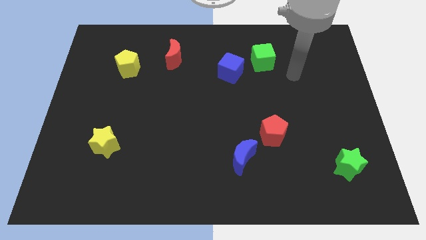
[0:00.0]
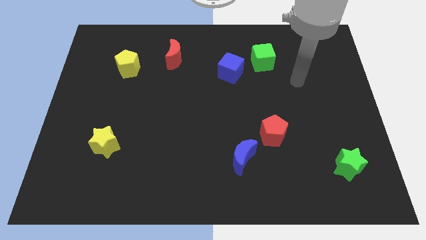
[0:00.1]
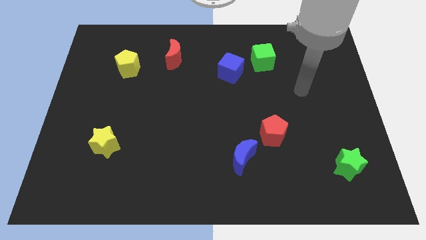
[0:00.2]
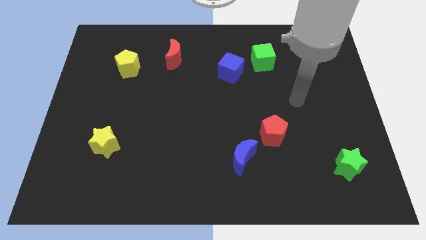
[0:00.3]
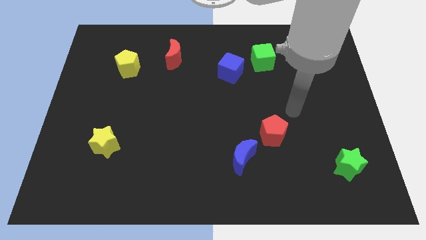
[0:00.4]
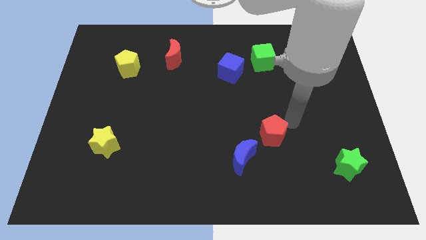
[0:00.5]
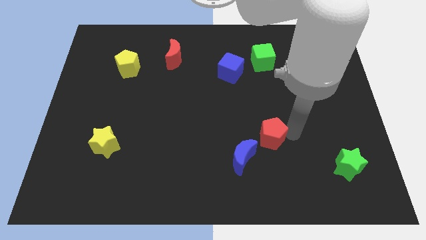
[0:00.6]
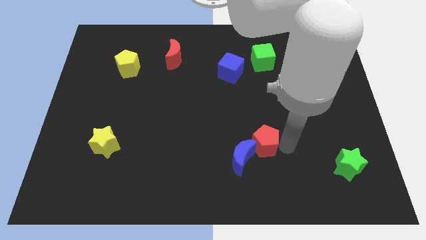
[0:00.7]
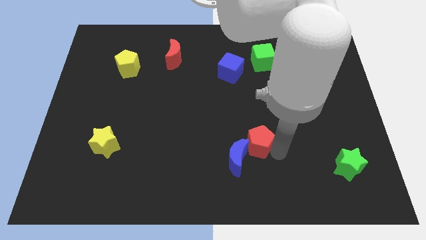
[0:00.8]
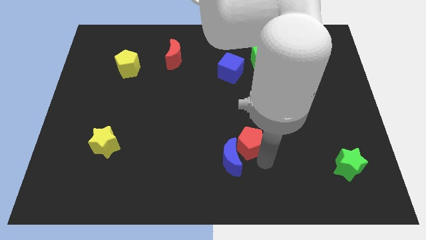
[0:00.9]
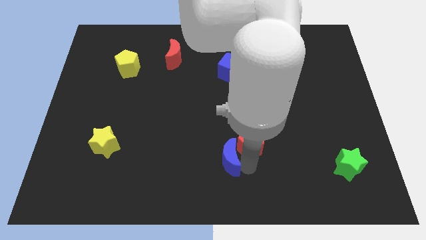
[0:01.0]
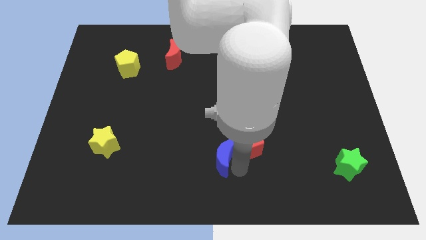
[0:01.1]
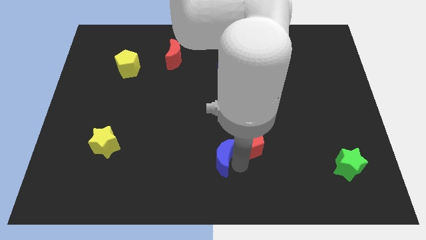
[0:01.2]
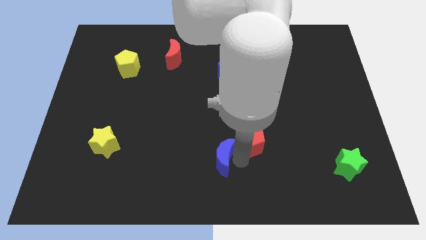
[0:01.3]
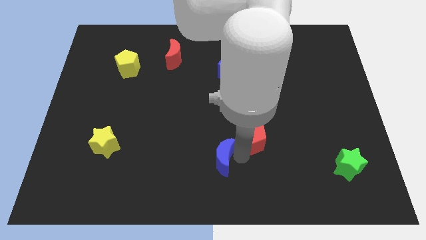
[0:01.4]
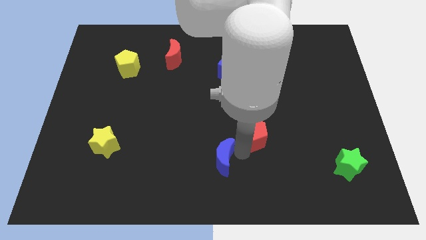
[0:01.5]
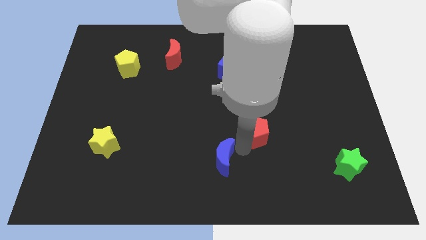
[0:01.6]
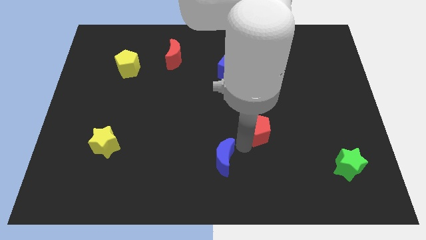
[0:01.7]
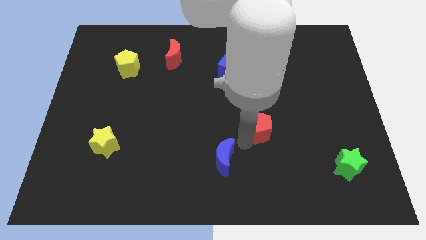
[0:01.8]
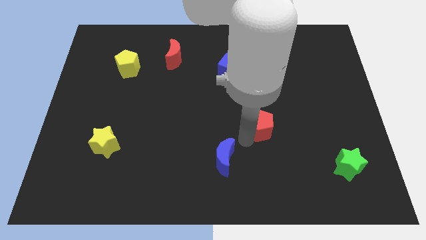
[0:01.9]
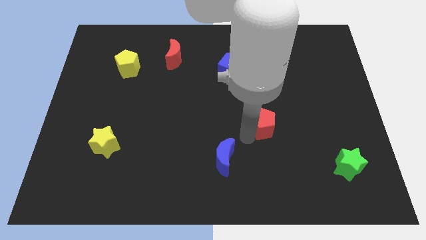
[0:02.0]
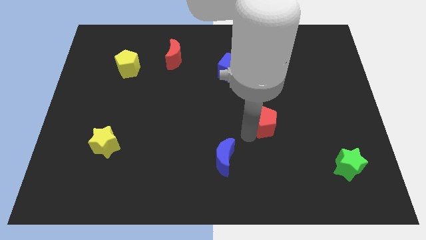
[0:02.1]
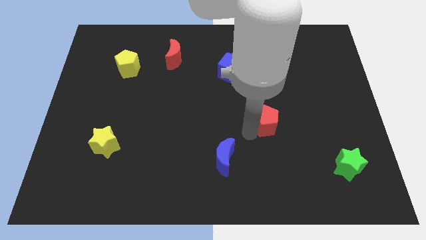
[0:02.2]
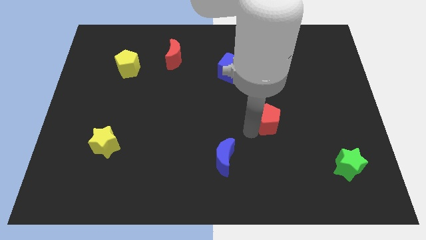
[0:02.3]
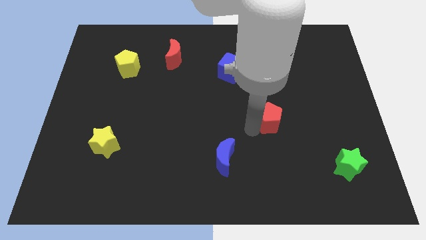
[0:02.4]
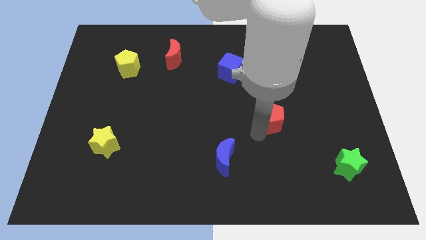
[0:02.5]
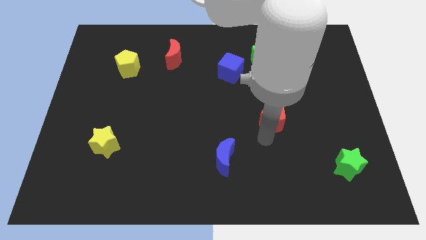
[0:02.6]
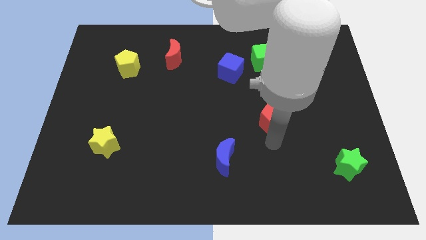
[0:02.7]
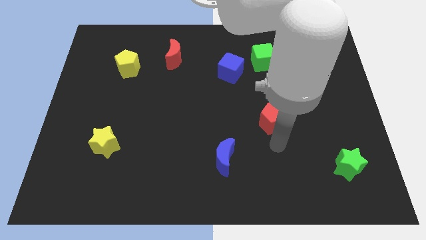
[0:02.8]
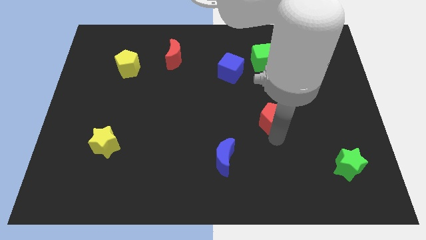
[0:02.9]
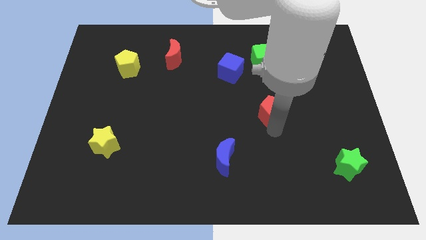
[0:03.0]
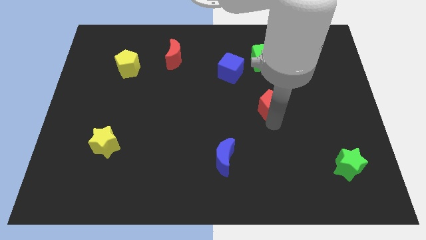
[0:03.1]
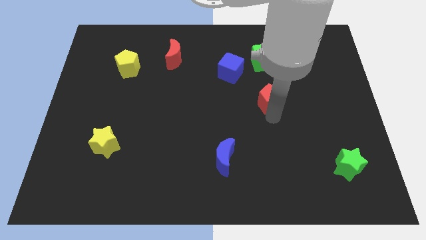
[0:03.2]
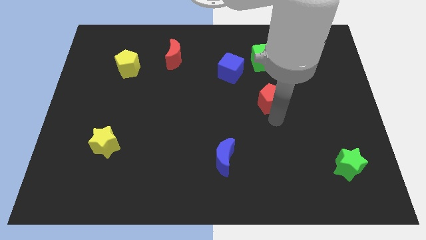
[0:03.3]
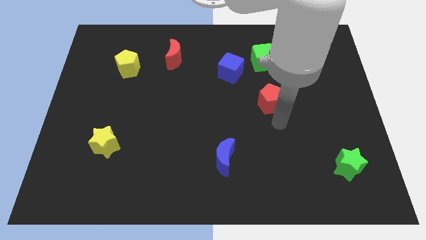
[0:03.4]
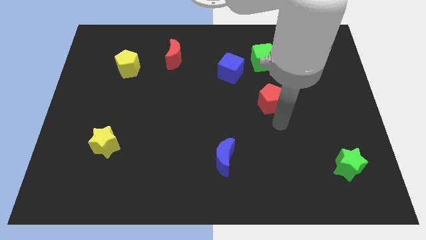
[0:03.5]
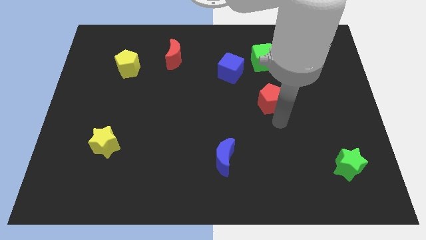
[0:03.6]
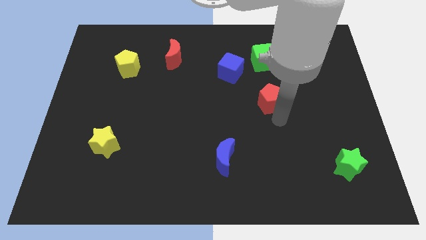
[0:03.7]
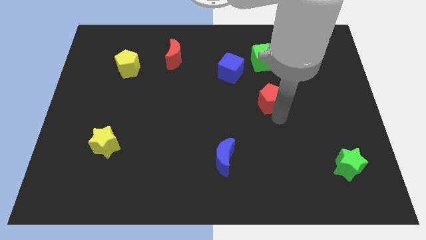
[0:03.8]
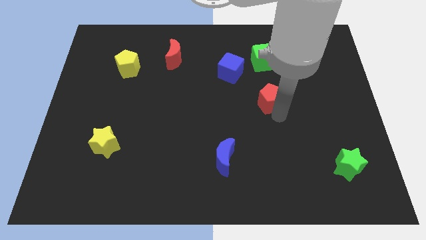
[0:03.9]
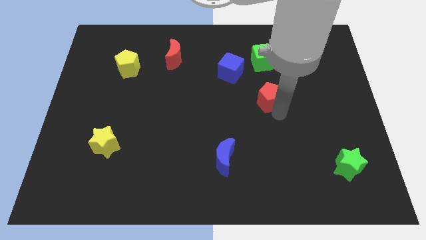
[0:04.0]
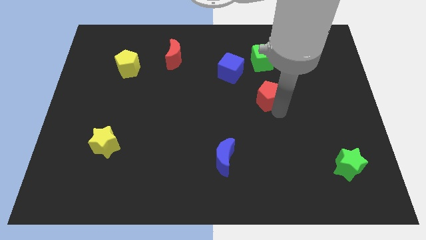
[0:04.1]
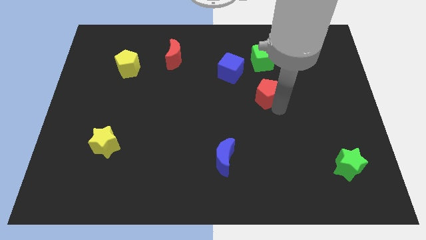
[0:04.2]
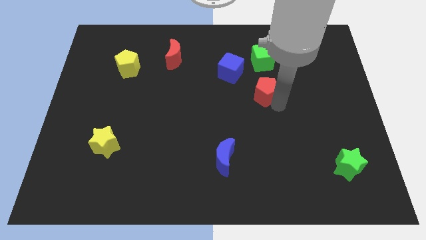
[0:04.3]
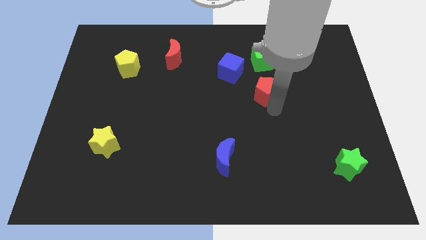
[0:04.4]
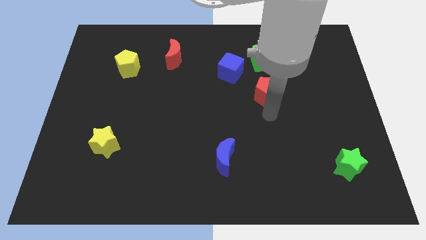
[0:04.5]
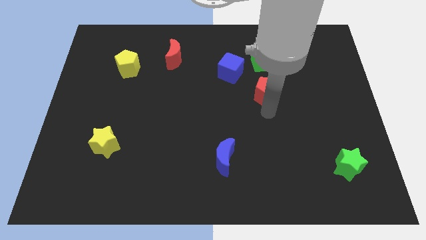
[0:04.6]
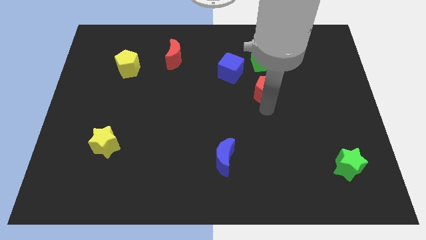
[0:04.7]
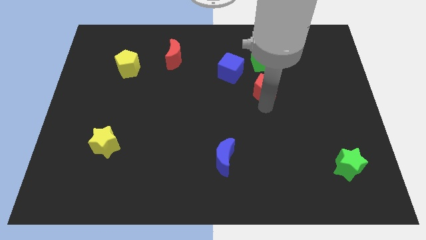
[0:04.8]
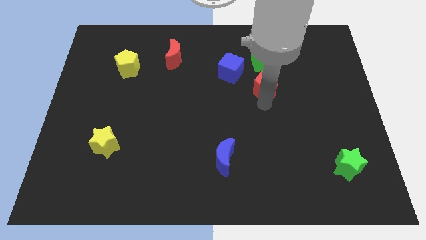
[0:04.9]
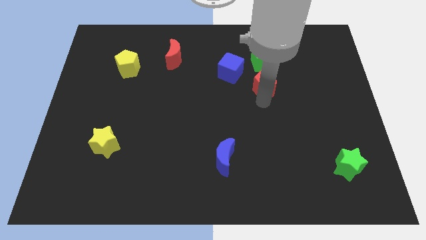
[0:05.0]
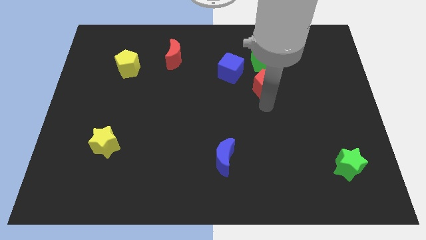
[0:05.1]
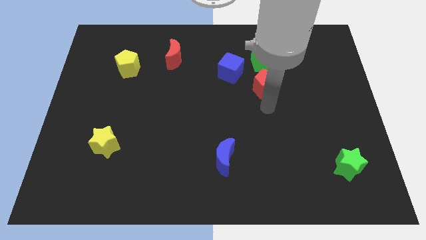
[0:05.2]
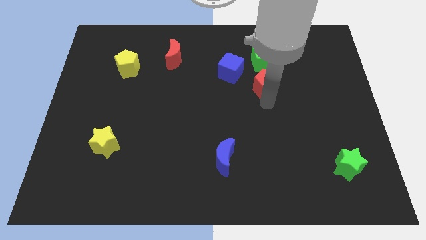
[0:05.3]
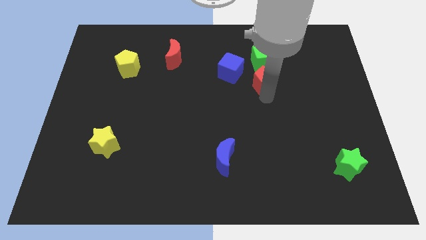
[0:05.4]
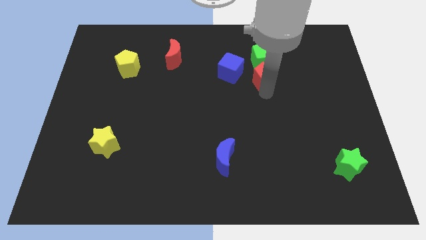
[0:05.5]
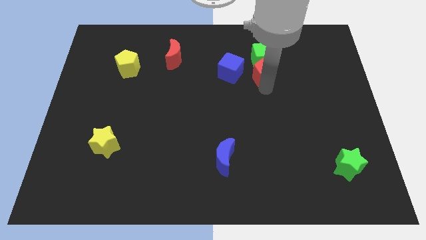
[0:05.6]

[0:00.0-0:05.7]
move the red pentagon towards the green cube
